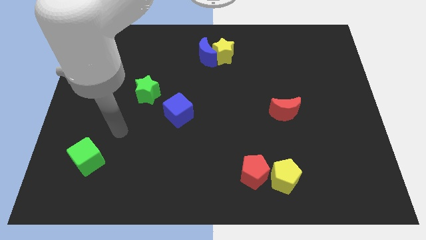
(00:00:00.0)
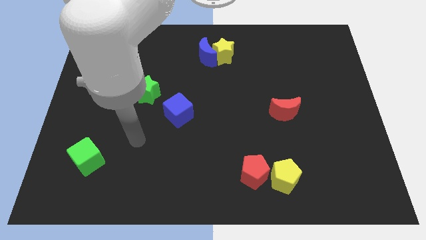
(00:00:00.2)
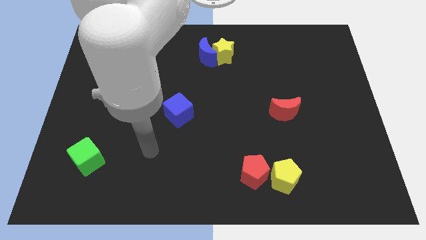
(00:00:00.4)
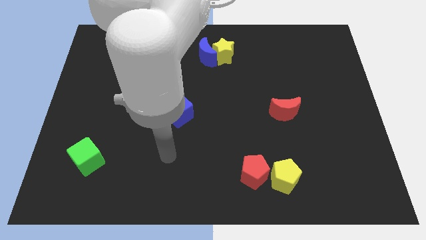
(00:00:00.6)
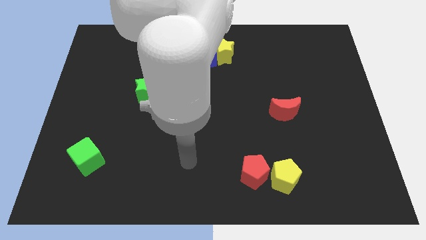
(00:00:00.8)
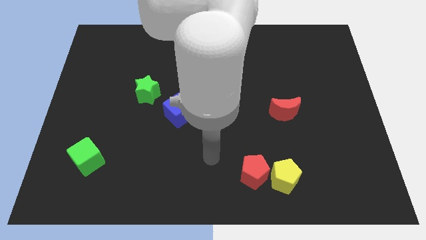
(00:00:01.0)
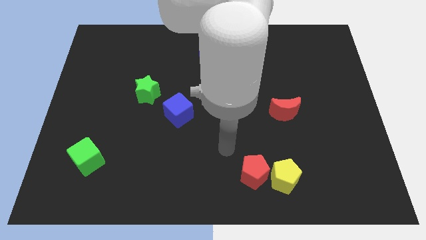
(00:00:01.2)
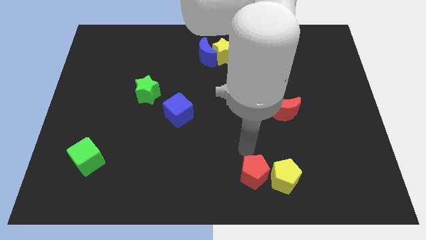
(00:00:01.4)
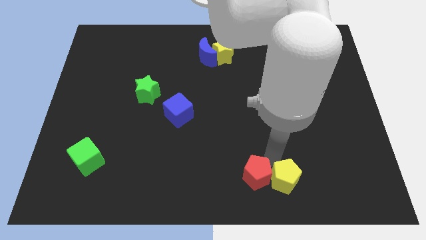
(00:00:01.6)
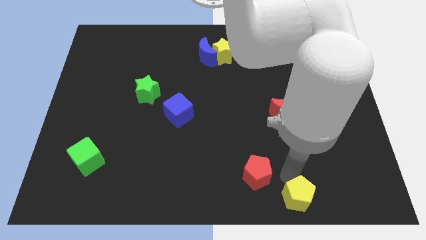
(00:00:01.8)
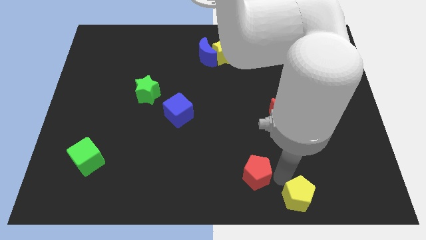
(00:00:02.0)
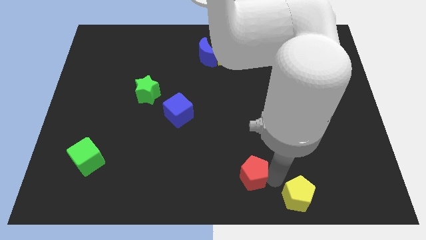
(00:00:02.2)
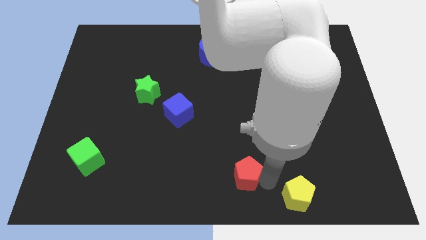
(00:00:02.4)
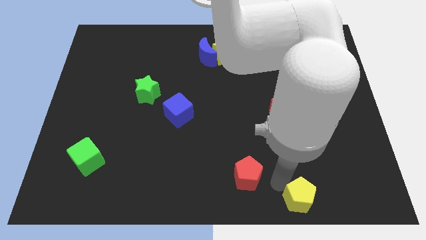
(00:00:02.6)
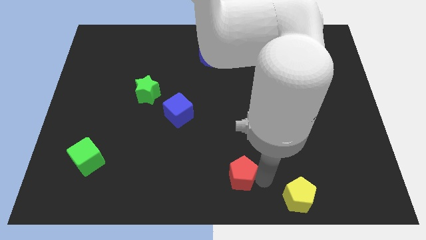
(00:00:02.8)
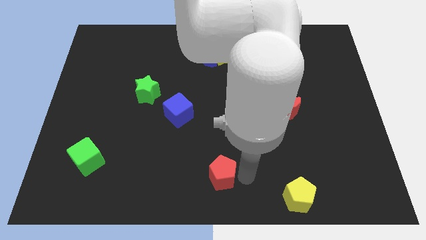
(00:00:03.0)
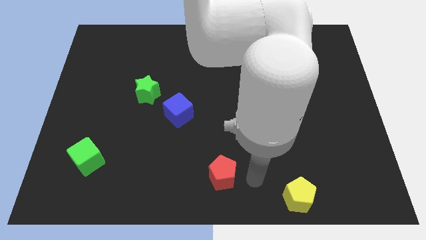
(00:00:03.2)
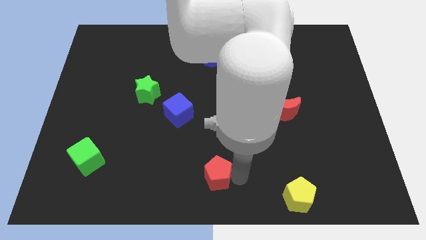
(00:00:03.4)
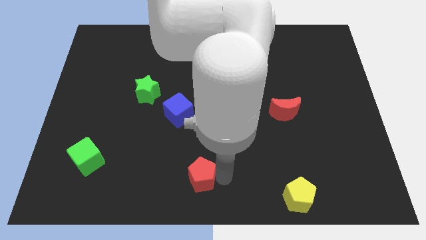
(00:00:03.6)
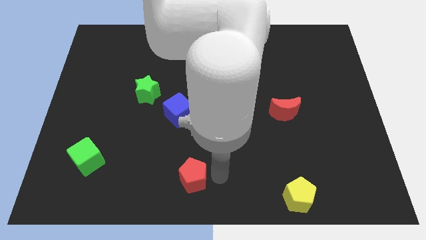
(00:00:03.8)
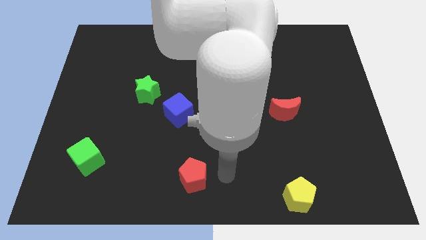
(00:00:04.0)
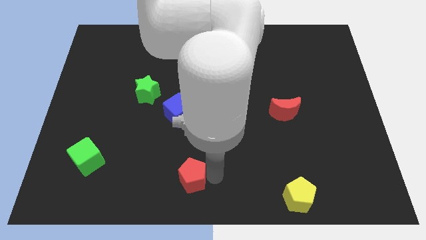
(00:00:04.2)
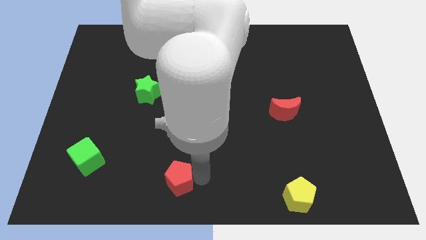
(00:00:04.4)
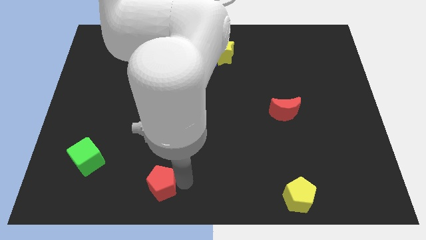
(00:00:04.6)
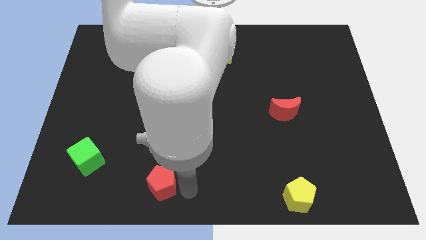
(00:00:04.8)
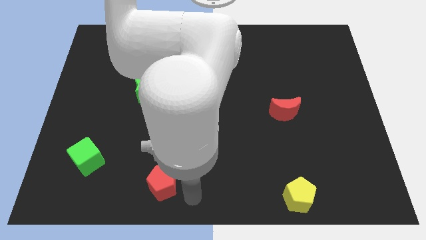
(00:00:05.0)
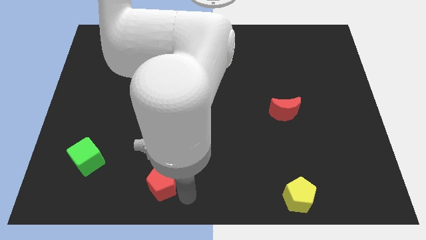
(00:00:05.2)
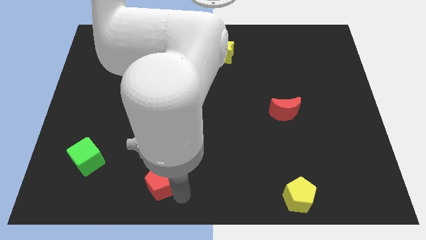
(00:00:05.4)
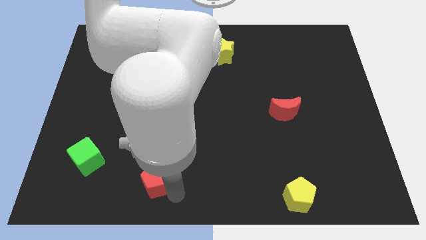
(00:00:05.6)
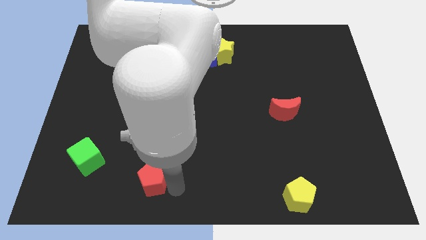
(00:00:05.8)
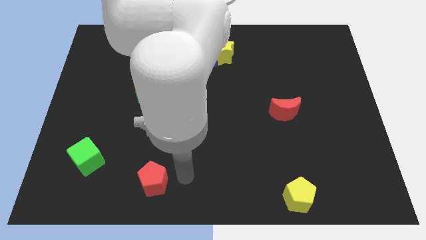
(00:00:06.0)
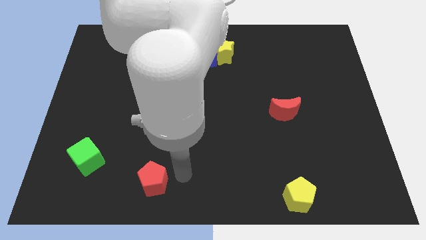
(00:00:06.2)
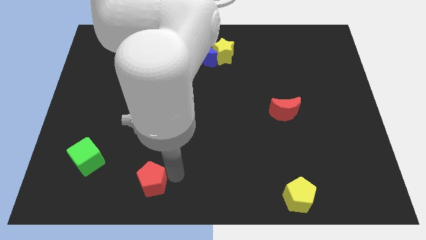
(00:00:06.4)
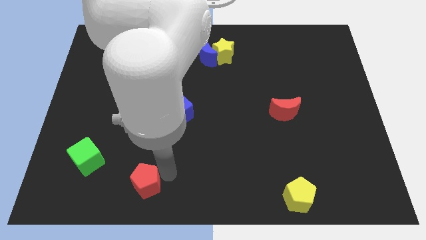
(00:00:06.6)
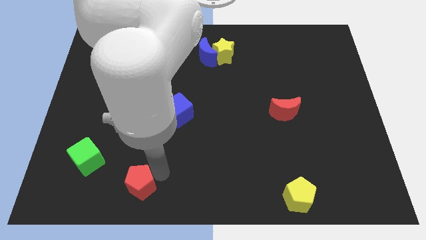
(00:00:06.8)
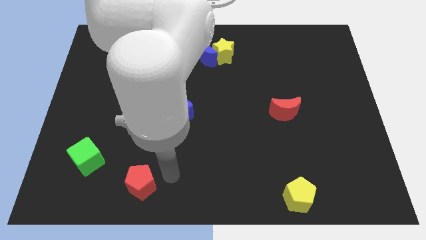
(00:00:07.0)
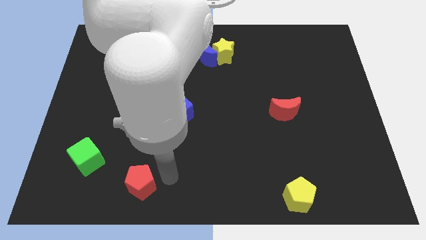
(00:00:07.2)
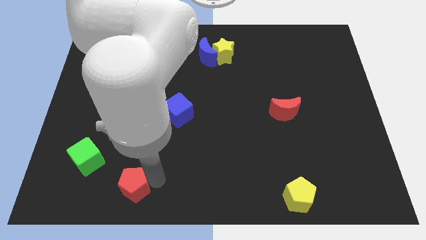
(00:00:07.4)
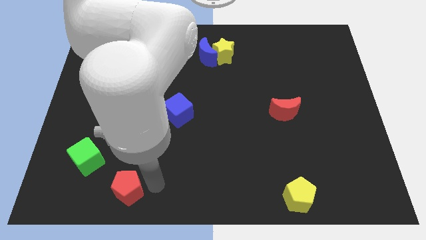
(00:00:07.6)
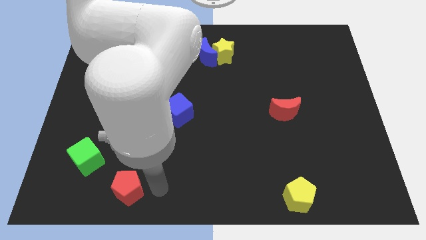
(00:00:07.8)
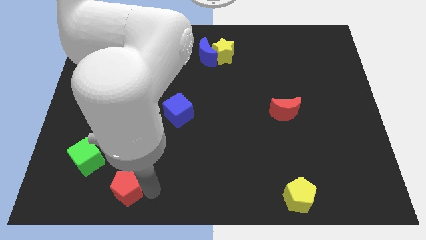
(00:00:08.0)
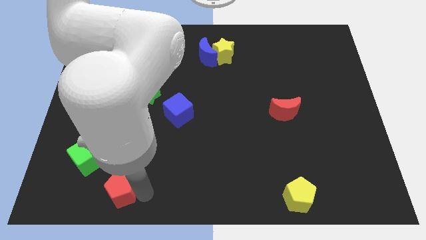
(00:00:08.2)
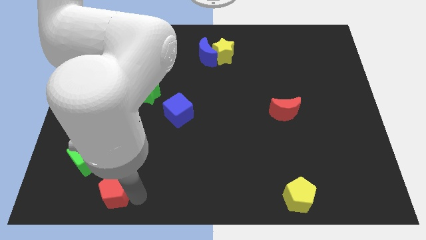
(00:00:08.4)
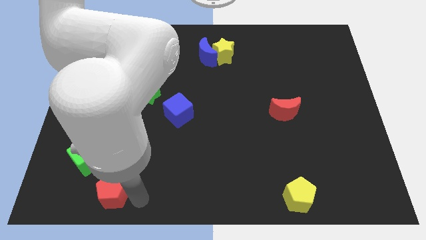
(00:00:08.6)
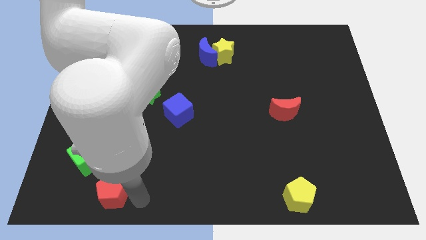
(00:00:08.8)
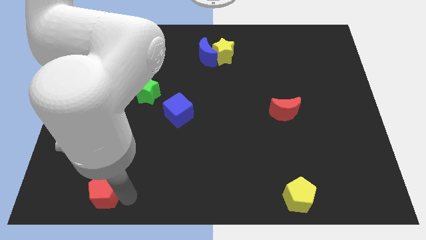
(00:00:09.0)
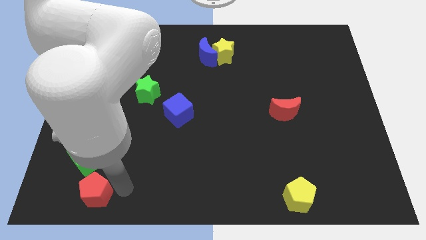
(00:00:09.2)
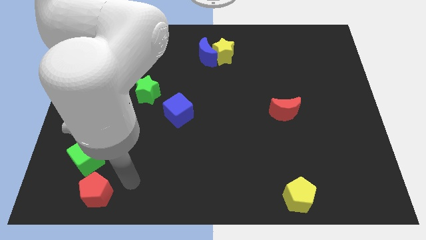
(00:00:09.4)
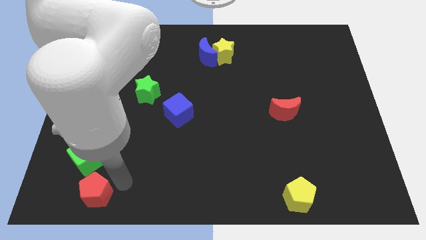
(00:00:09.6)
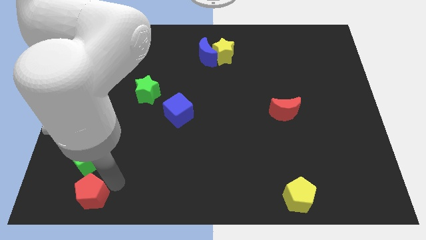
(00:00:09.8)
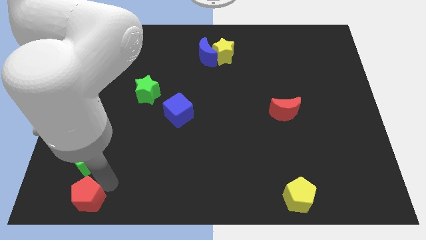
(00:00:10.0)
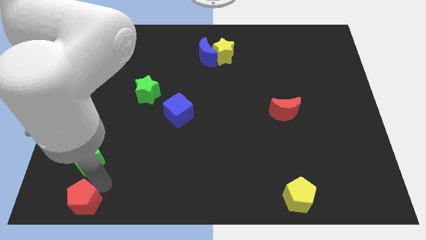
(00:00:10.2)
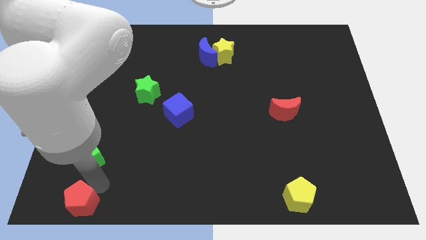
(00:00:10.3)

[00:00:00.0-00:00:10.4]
put the red pentagon to the bottom left of the board
